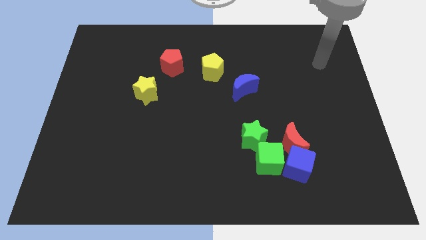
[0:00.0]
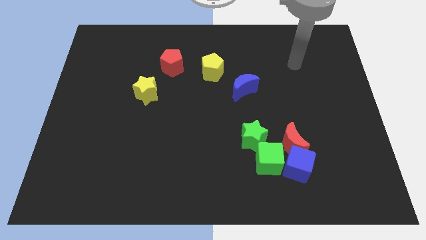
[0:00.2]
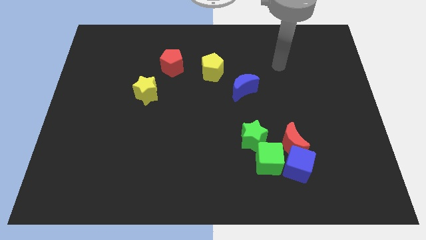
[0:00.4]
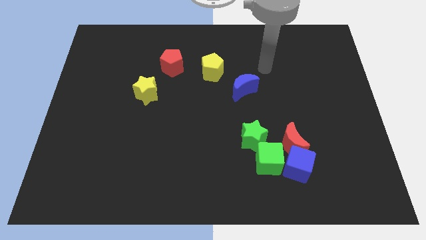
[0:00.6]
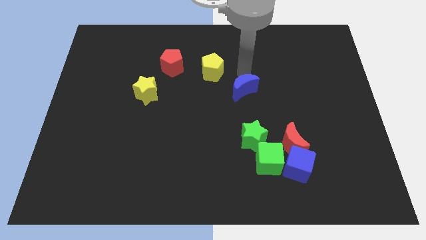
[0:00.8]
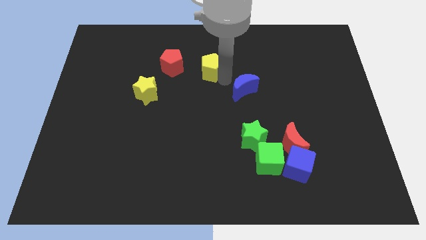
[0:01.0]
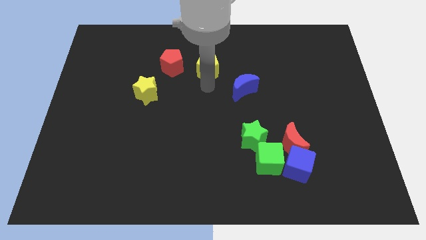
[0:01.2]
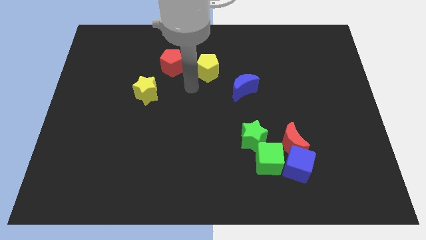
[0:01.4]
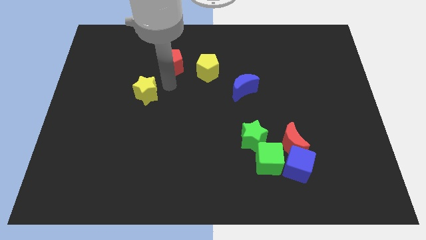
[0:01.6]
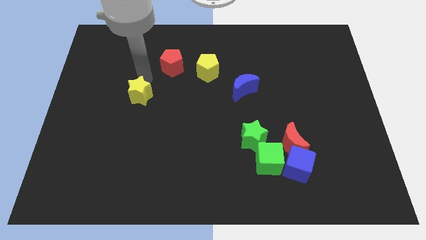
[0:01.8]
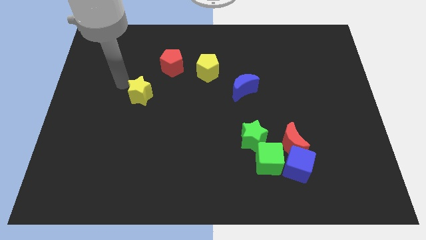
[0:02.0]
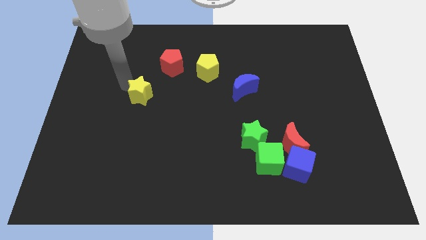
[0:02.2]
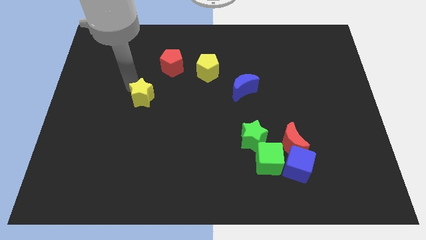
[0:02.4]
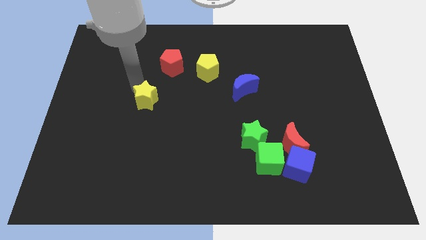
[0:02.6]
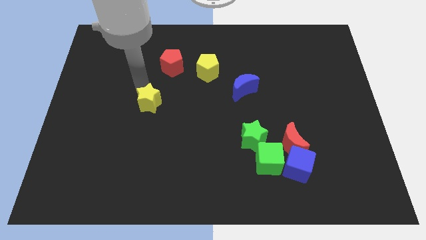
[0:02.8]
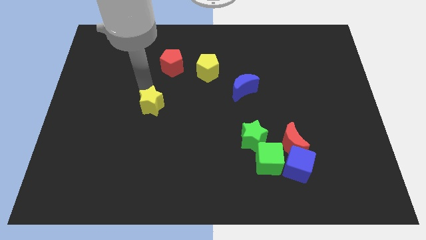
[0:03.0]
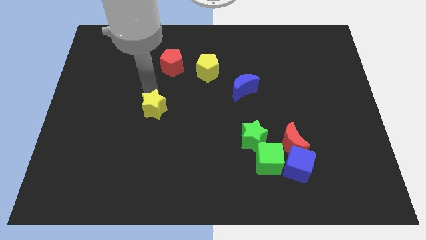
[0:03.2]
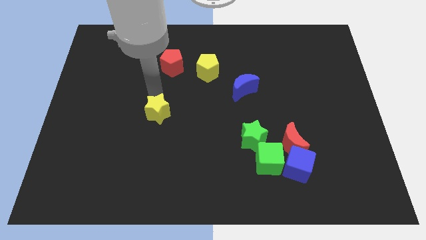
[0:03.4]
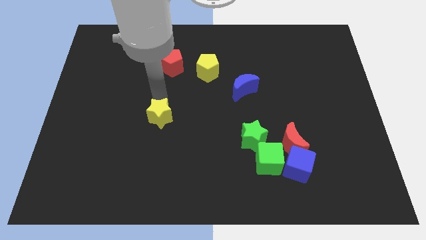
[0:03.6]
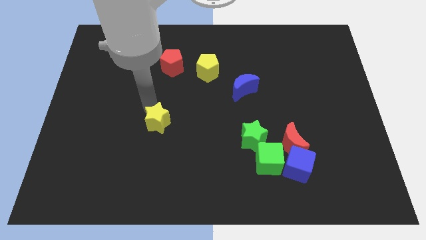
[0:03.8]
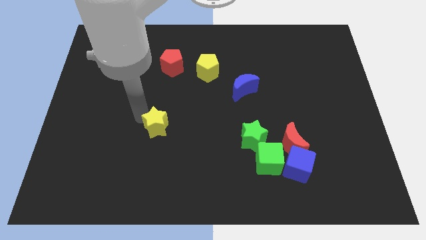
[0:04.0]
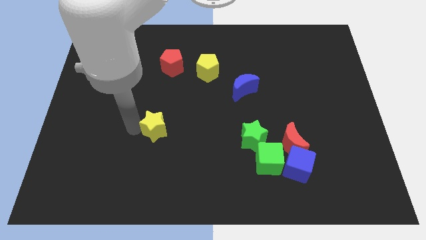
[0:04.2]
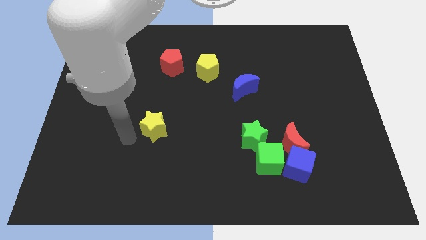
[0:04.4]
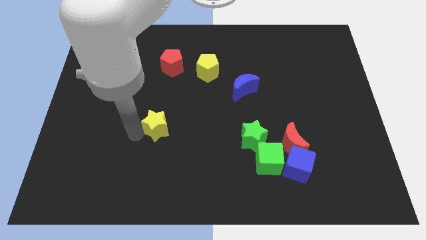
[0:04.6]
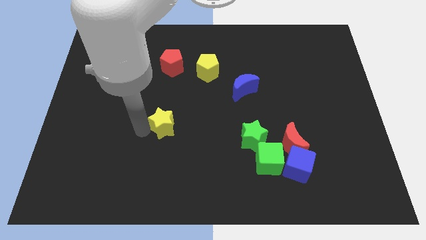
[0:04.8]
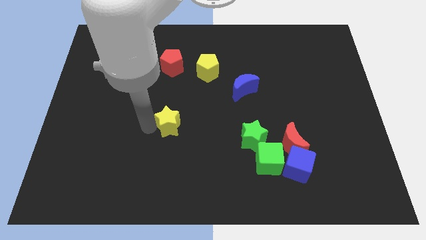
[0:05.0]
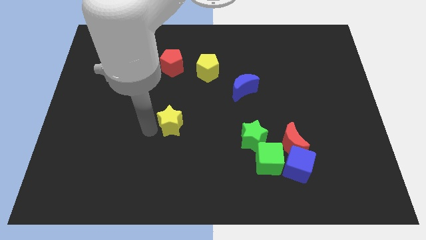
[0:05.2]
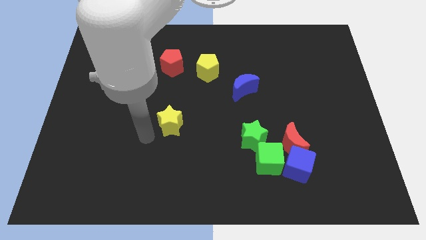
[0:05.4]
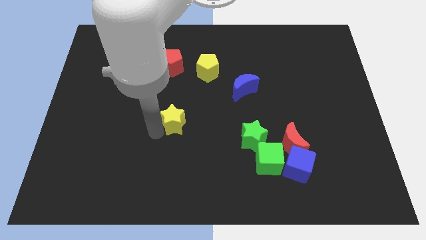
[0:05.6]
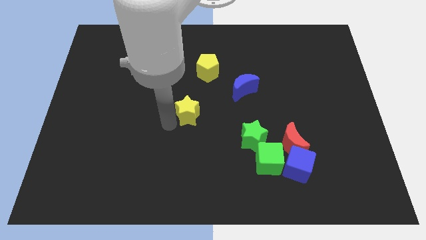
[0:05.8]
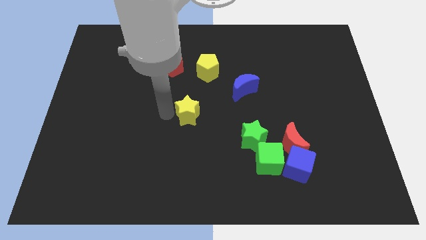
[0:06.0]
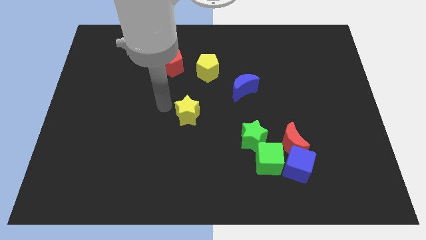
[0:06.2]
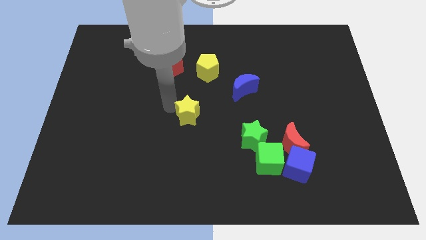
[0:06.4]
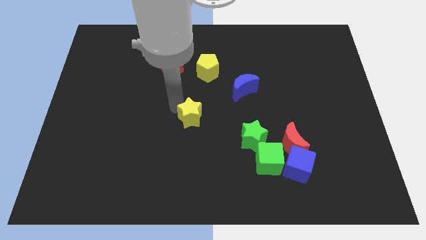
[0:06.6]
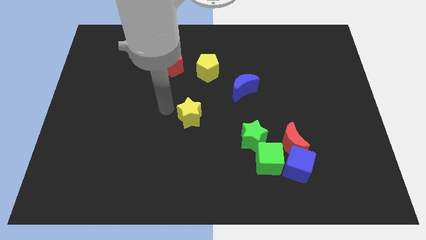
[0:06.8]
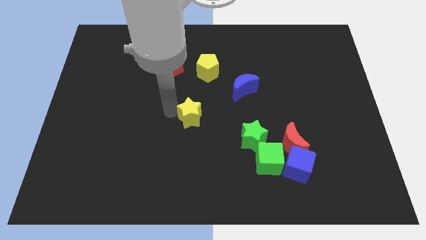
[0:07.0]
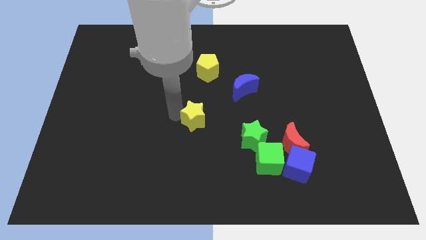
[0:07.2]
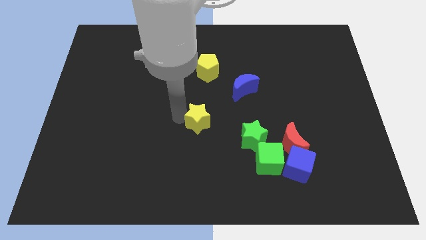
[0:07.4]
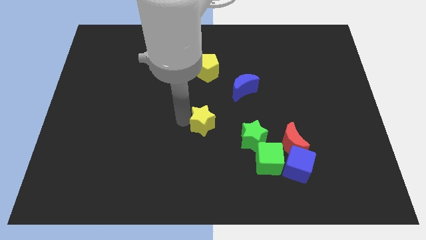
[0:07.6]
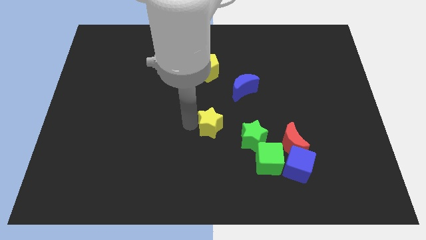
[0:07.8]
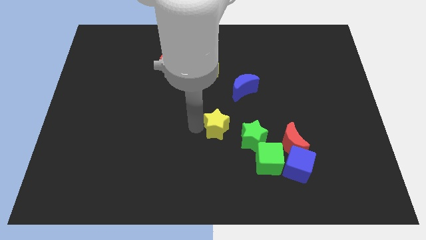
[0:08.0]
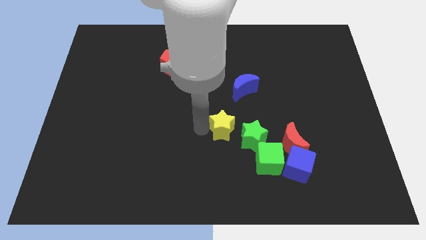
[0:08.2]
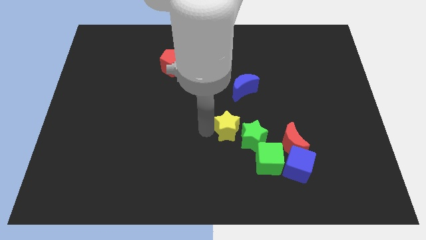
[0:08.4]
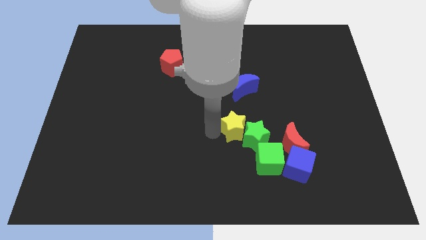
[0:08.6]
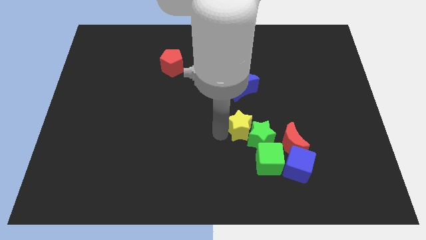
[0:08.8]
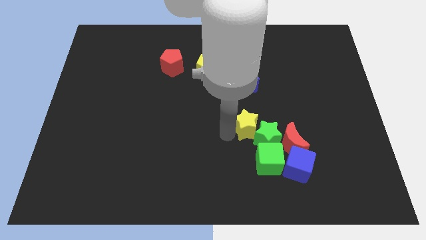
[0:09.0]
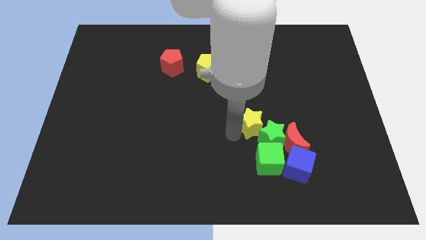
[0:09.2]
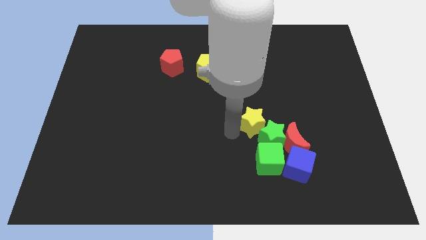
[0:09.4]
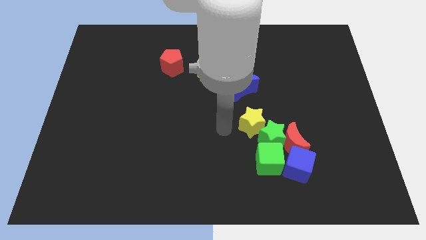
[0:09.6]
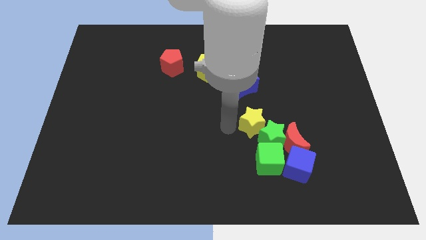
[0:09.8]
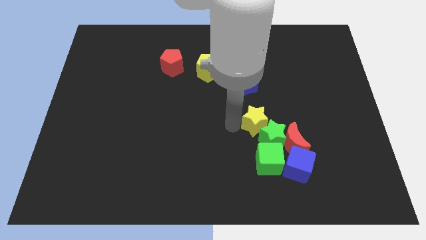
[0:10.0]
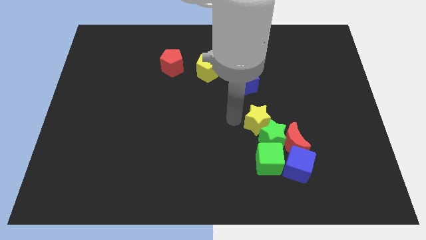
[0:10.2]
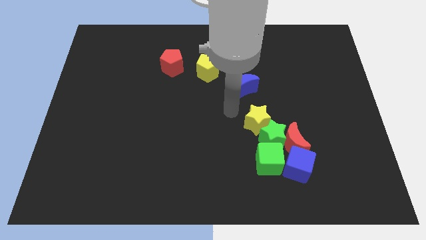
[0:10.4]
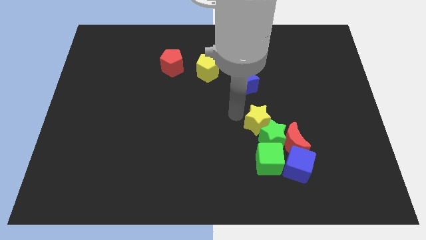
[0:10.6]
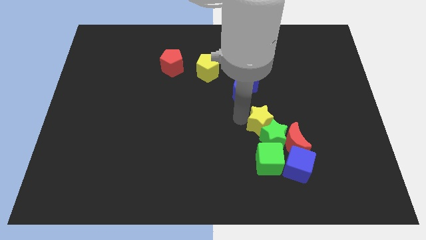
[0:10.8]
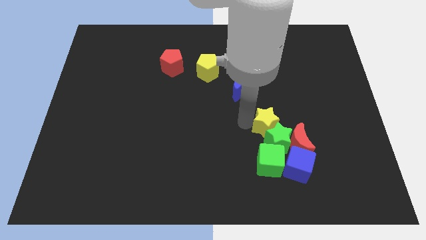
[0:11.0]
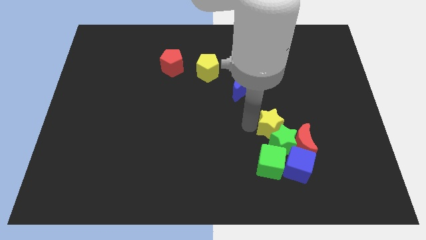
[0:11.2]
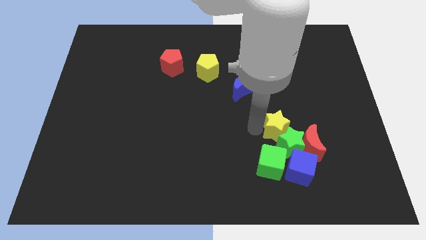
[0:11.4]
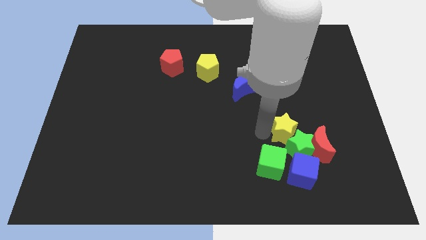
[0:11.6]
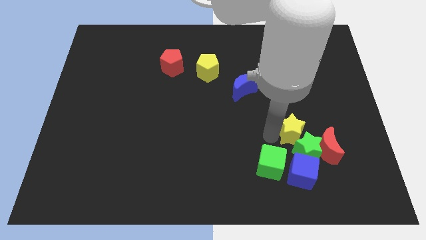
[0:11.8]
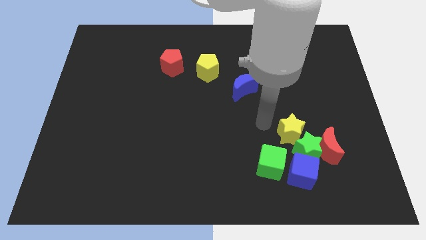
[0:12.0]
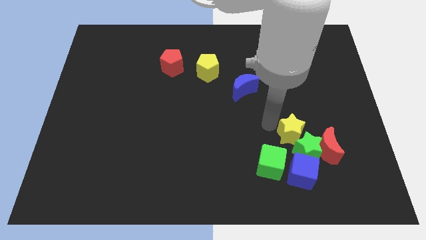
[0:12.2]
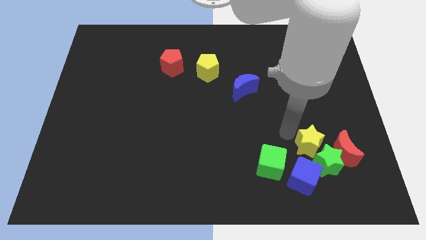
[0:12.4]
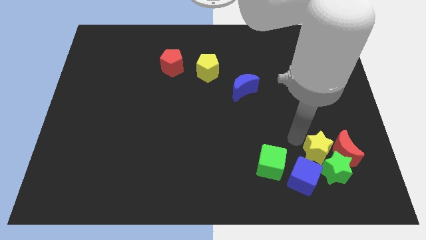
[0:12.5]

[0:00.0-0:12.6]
push the yellow star next to the red moon

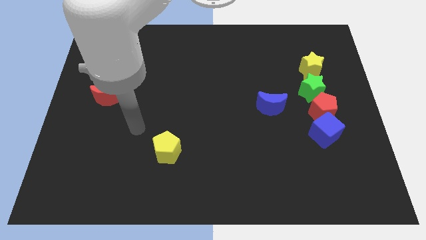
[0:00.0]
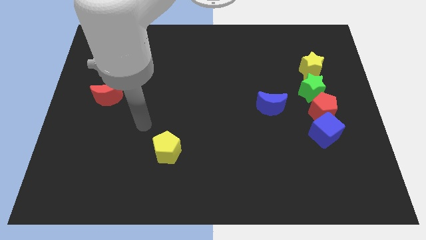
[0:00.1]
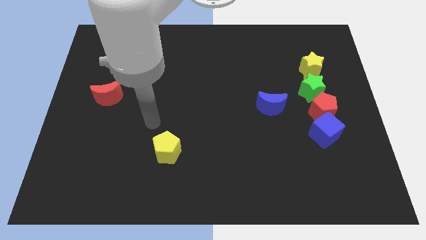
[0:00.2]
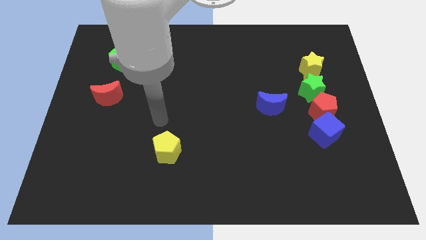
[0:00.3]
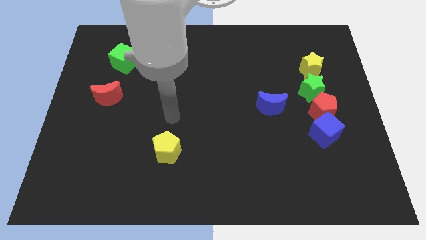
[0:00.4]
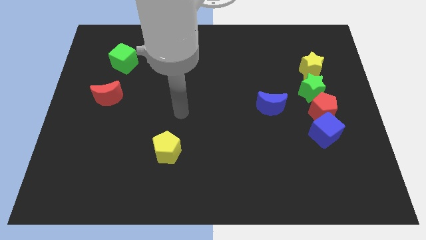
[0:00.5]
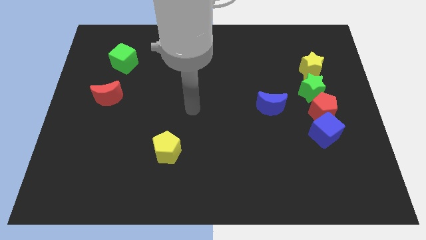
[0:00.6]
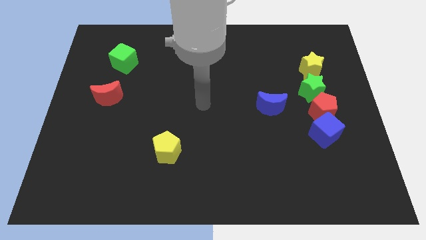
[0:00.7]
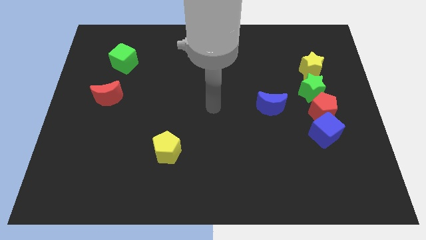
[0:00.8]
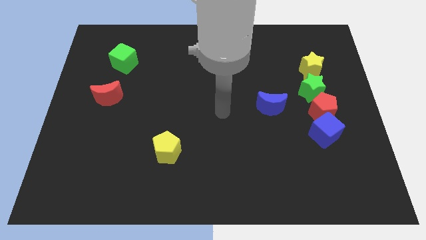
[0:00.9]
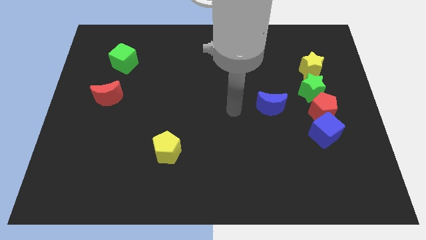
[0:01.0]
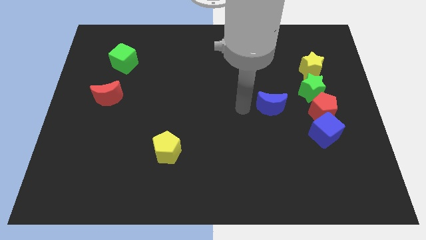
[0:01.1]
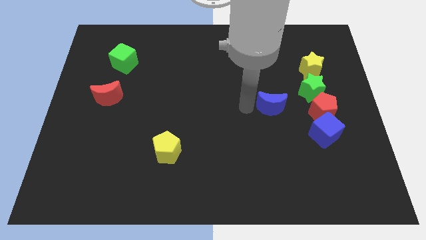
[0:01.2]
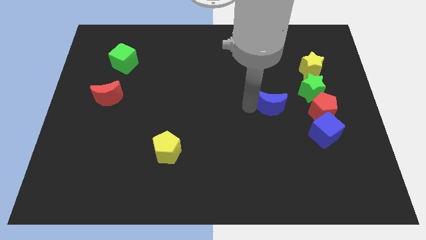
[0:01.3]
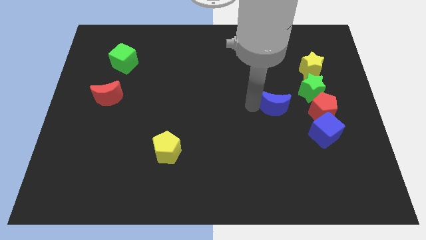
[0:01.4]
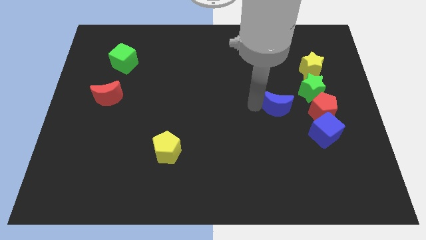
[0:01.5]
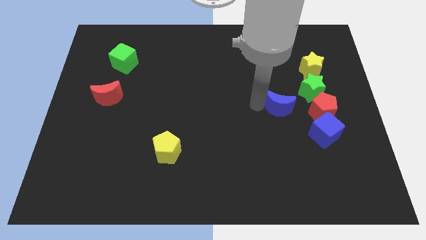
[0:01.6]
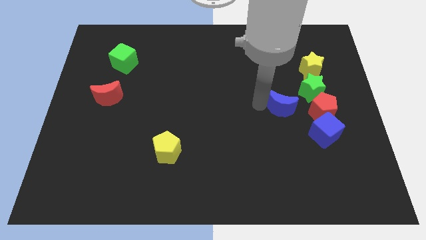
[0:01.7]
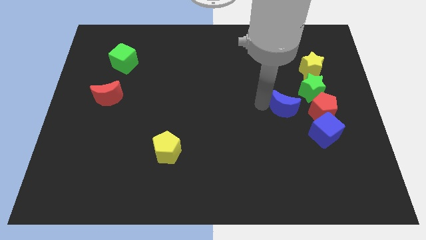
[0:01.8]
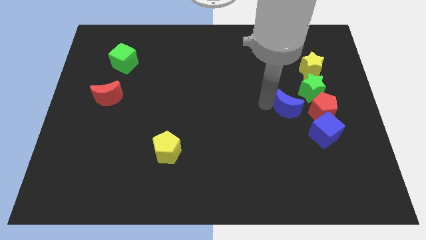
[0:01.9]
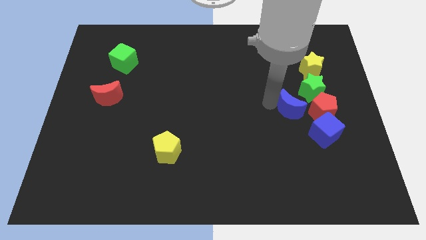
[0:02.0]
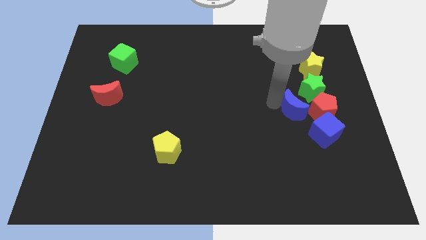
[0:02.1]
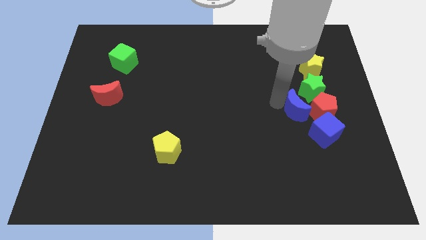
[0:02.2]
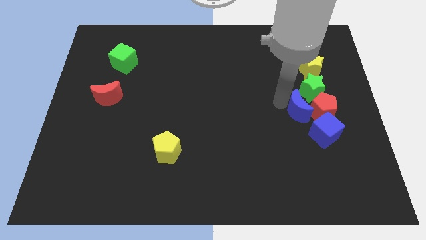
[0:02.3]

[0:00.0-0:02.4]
put the blue moon to the red pentagon
